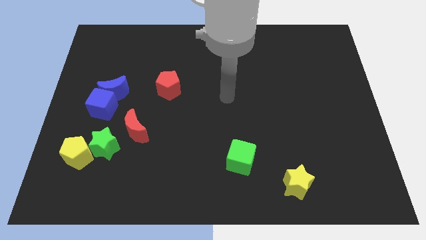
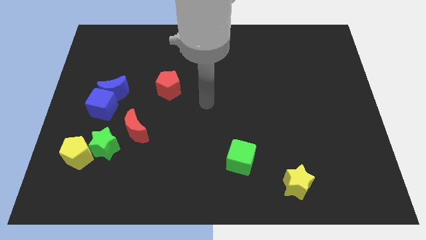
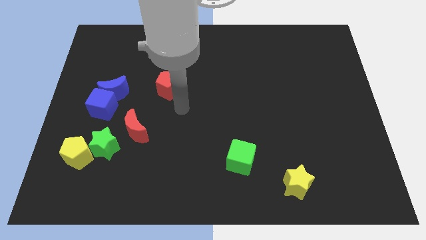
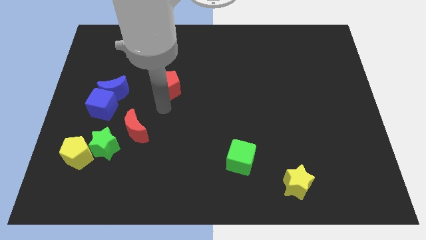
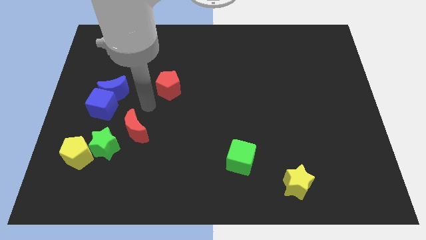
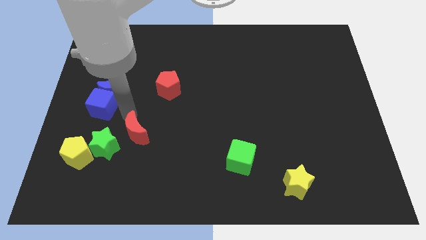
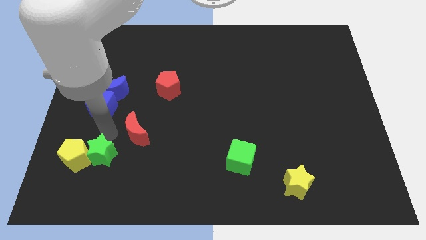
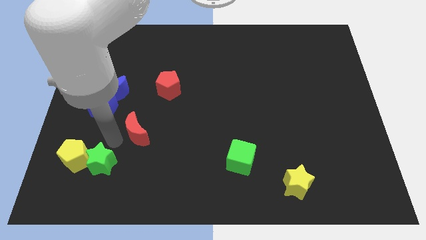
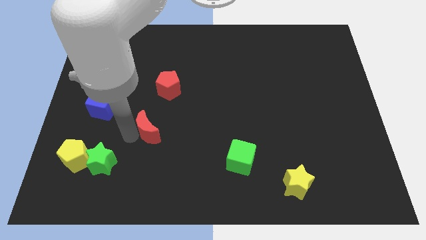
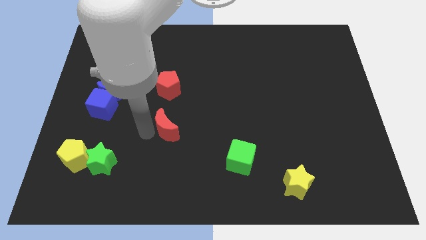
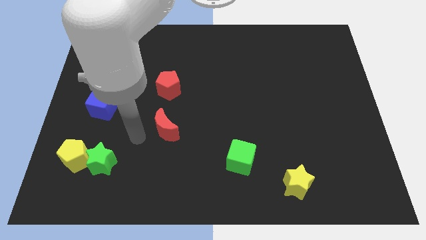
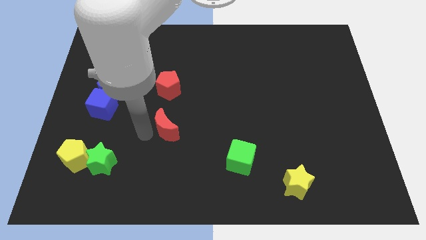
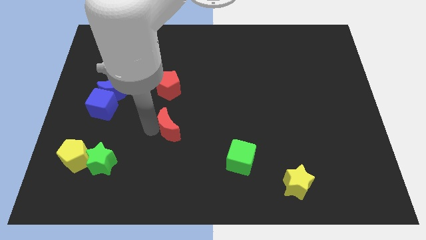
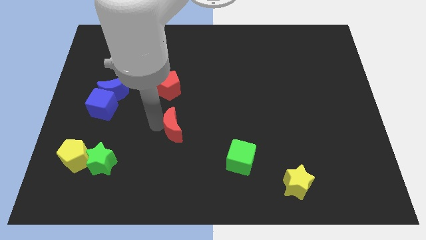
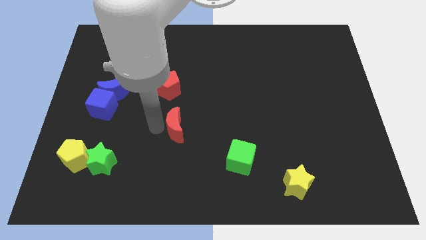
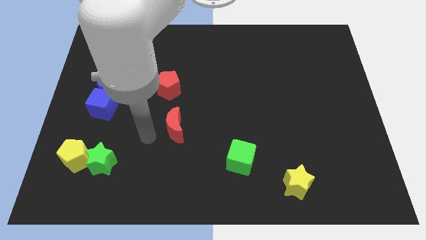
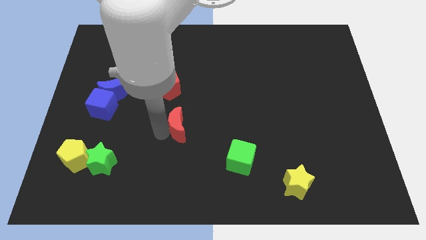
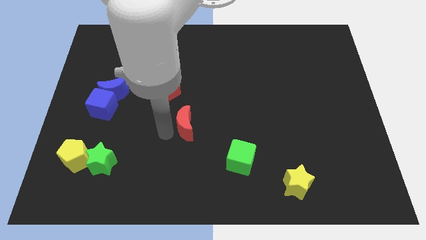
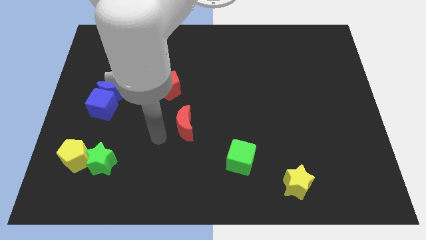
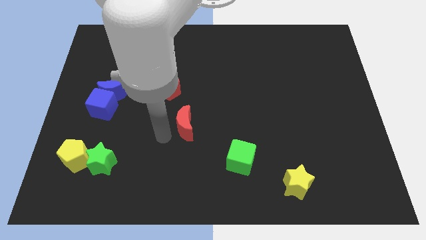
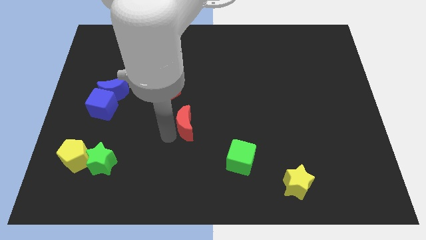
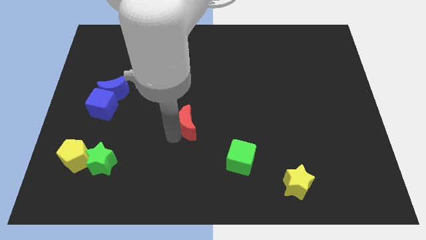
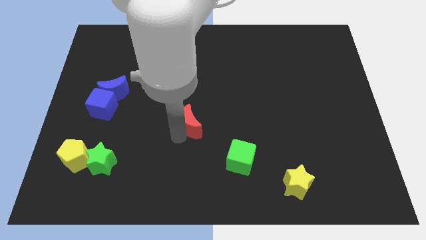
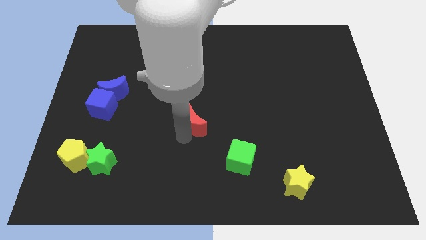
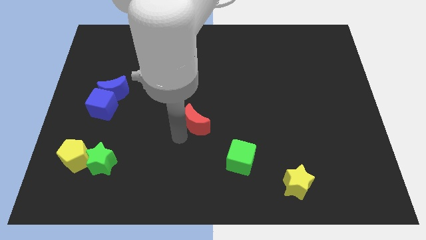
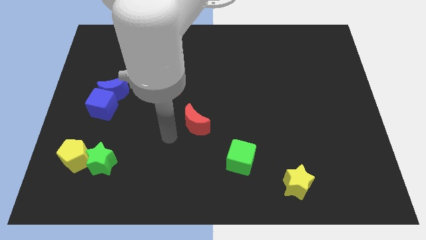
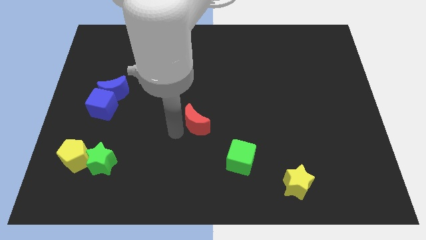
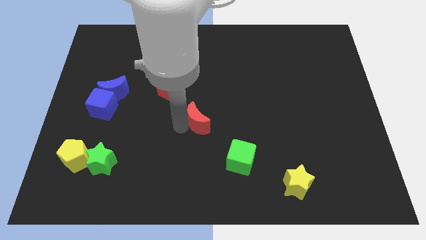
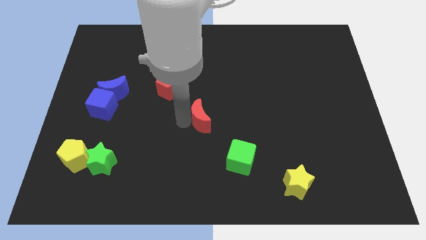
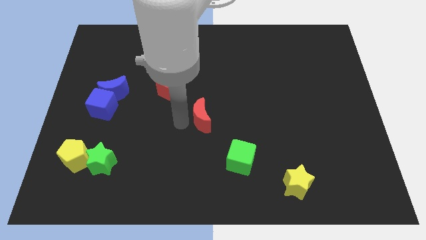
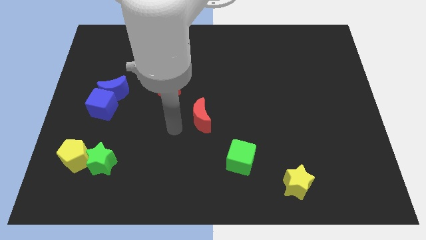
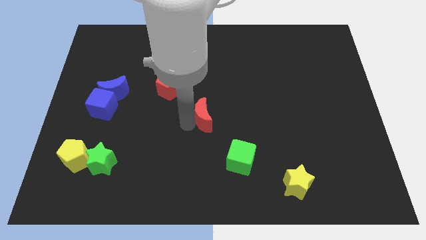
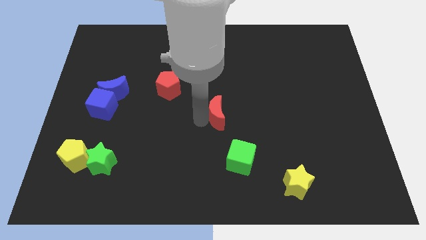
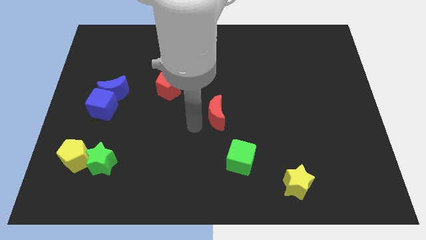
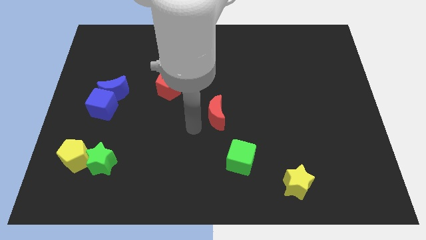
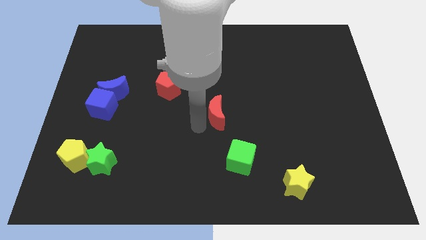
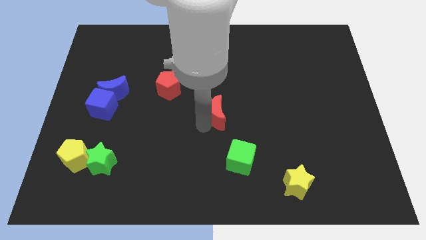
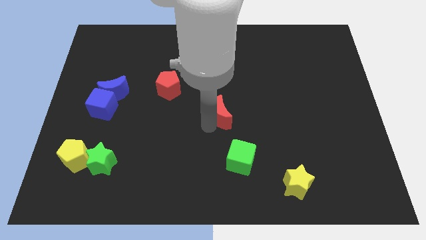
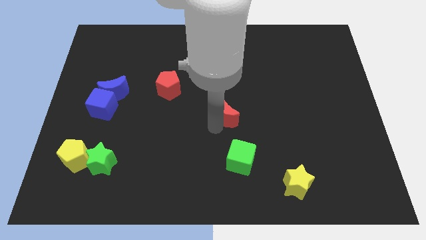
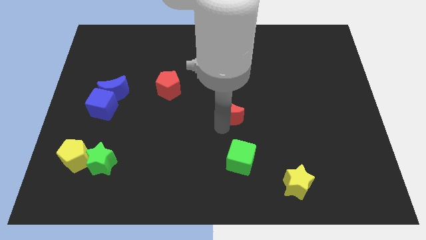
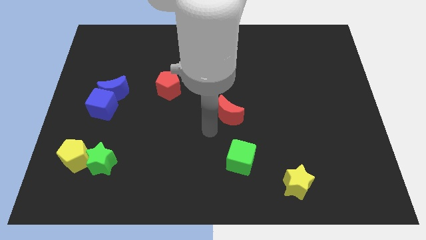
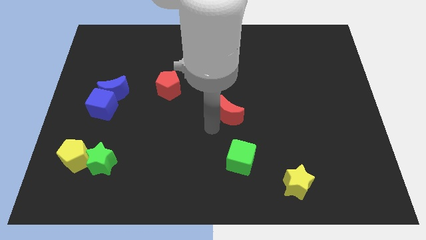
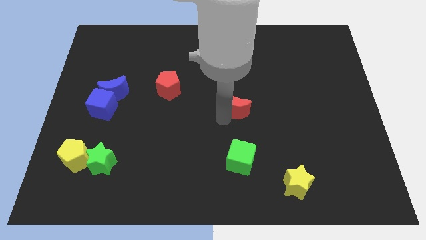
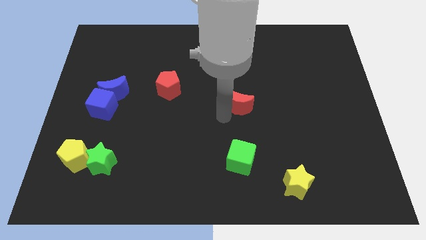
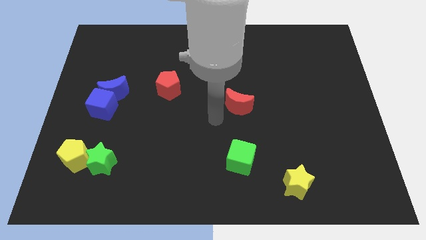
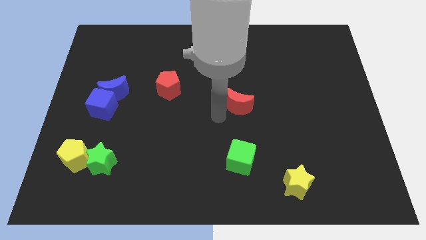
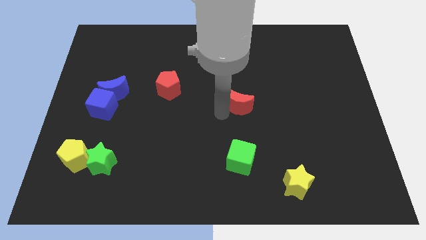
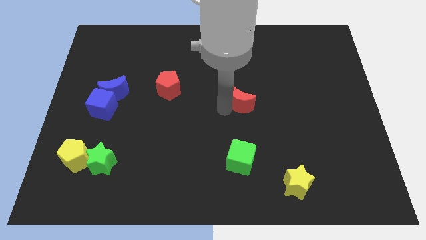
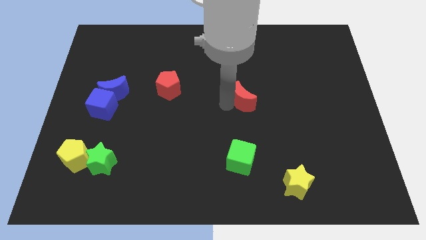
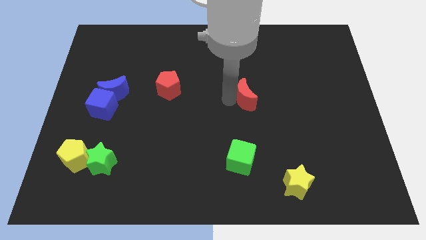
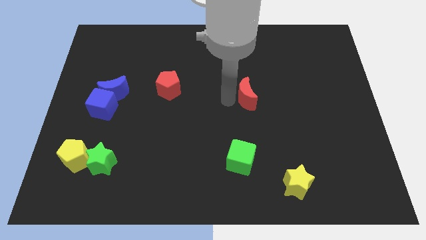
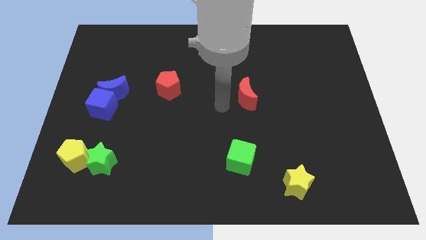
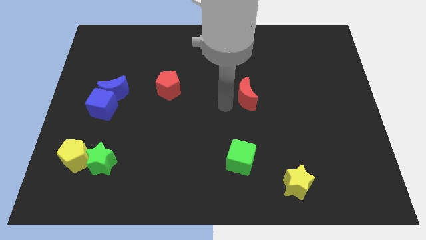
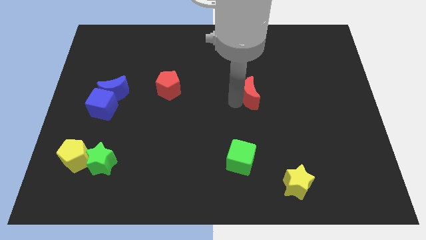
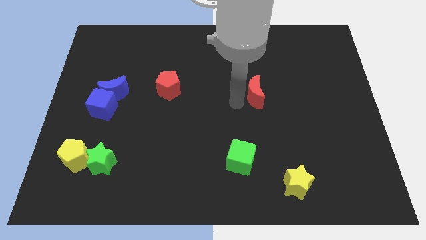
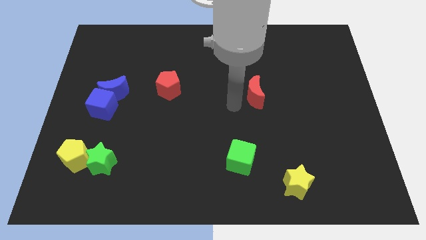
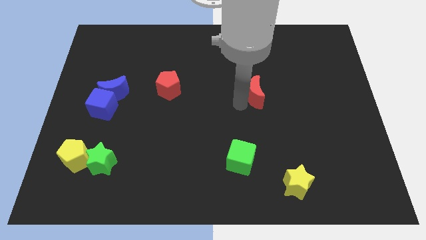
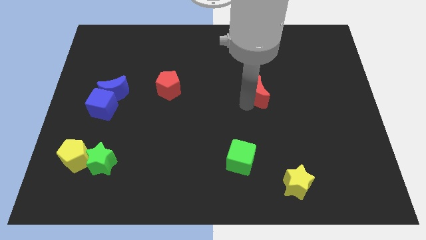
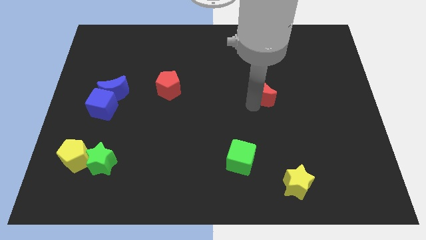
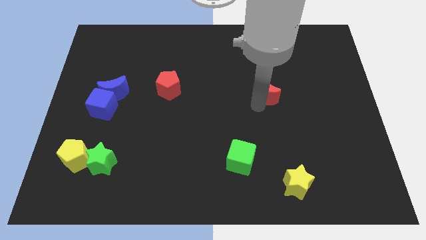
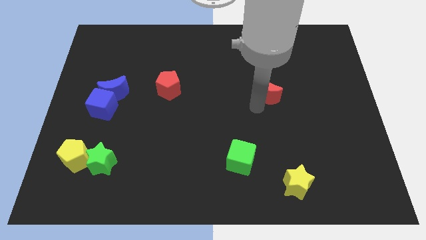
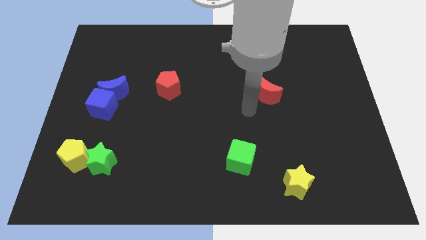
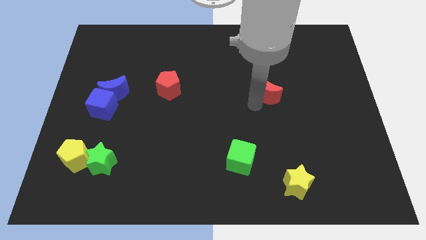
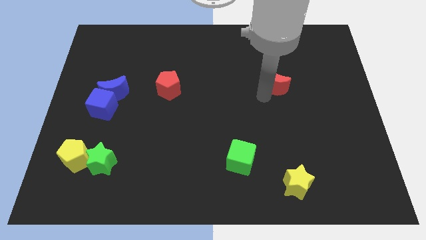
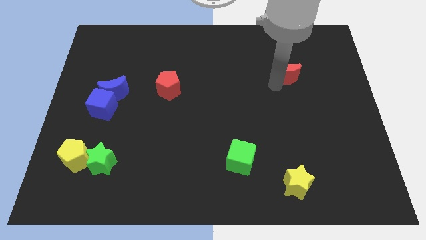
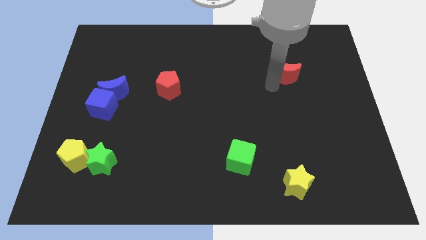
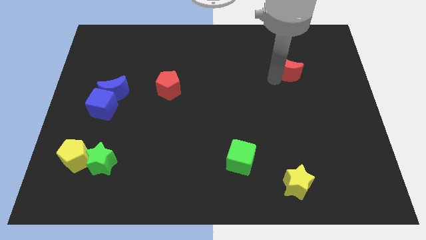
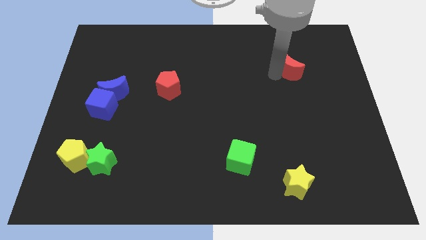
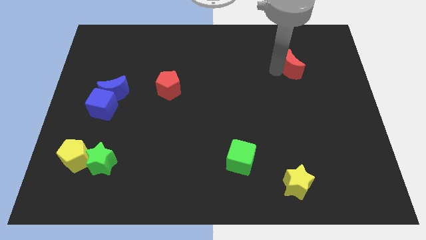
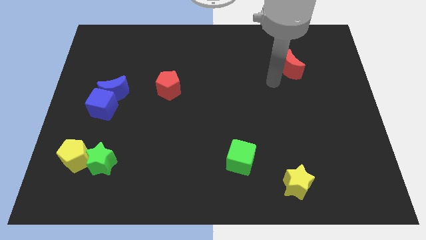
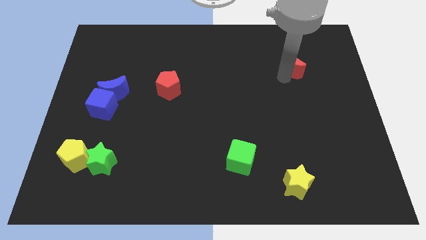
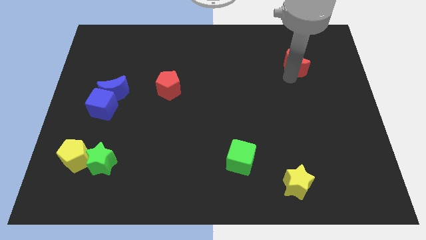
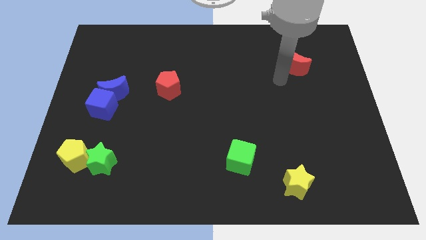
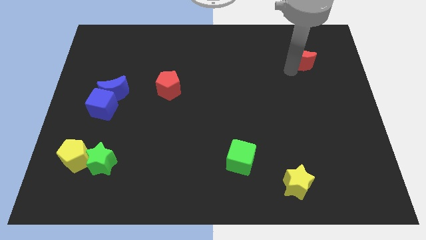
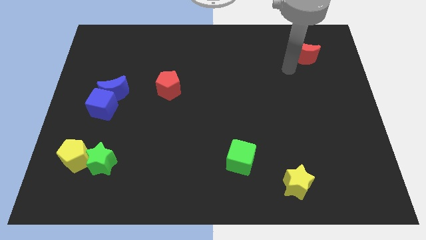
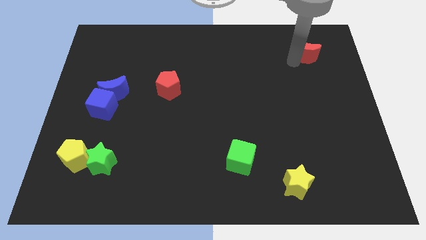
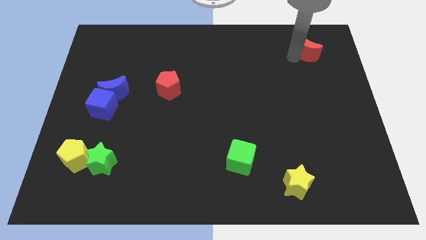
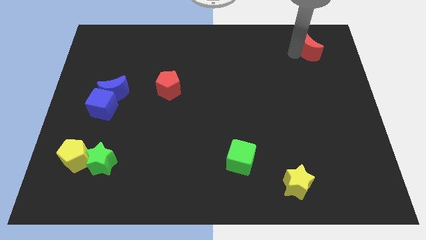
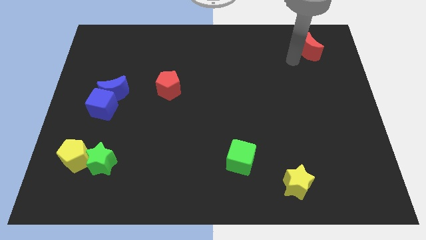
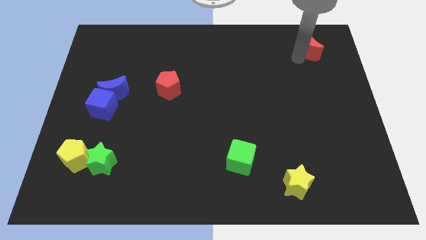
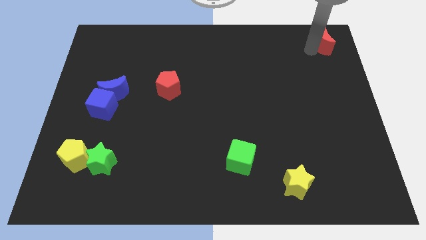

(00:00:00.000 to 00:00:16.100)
move the red moon to the upper right corner
